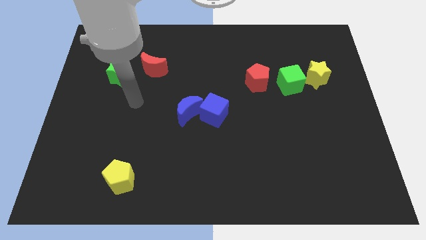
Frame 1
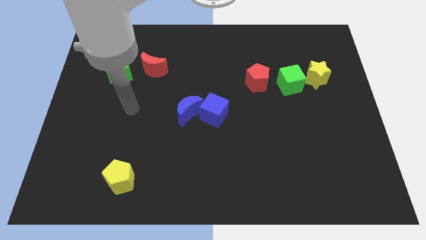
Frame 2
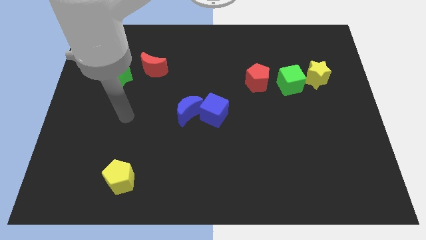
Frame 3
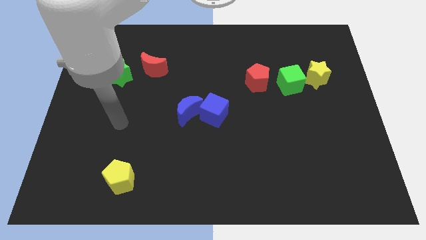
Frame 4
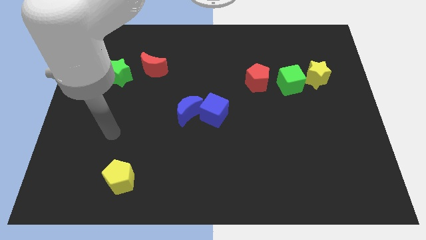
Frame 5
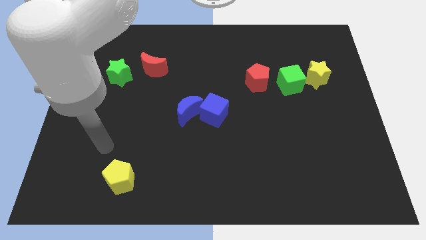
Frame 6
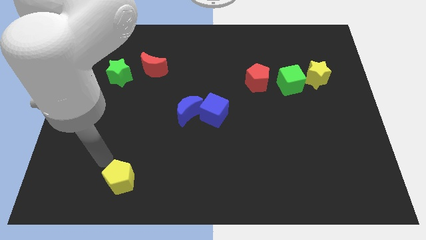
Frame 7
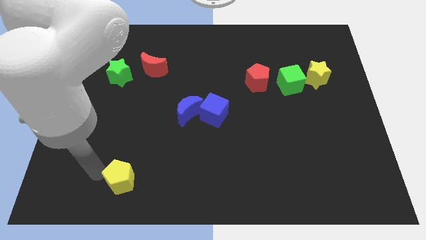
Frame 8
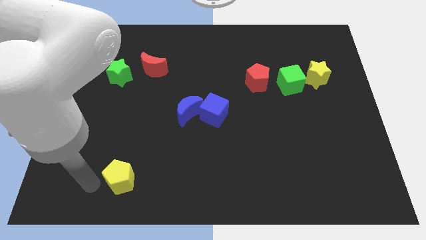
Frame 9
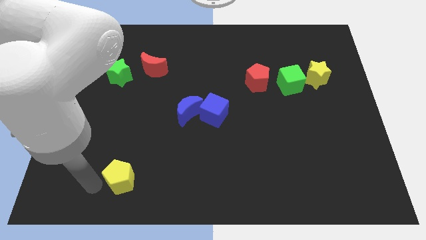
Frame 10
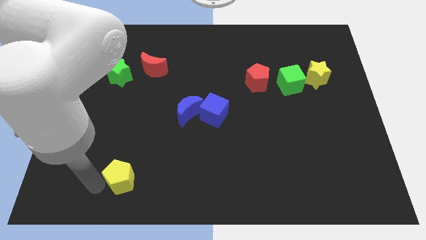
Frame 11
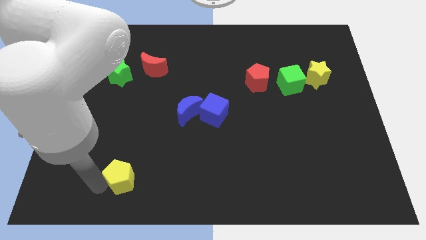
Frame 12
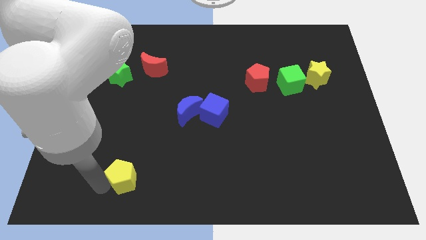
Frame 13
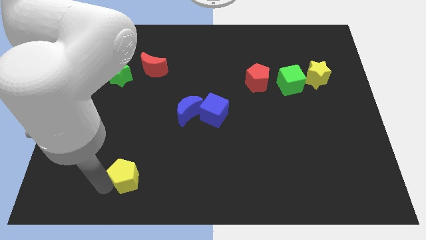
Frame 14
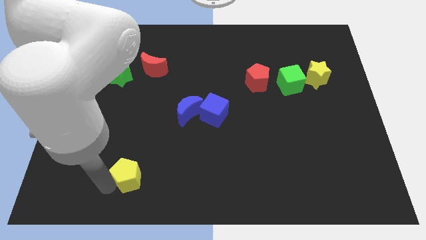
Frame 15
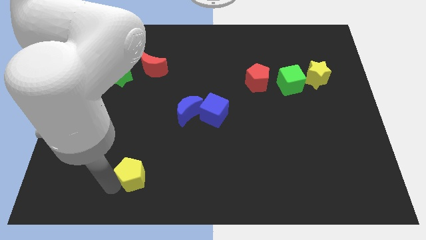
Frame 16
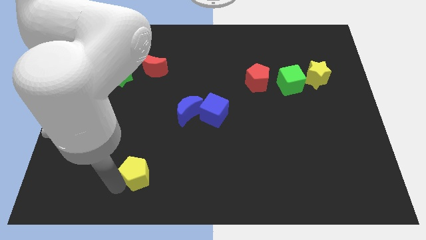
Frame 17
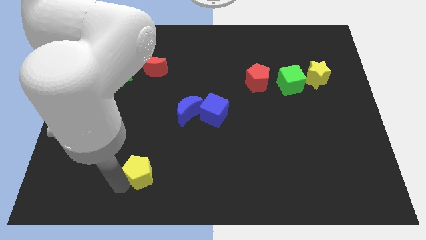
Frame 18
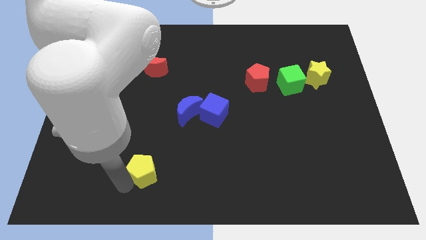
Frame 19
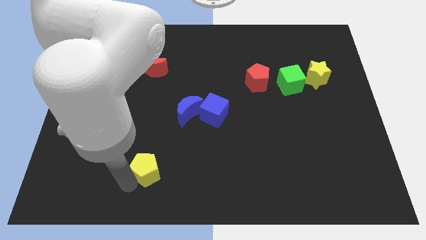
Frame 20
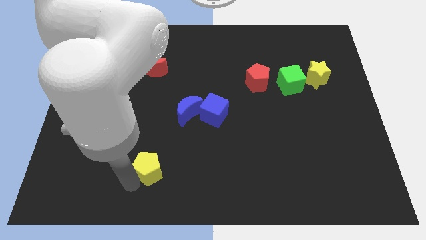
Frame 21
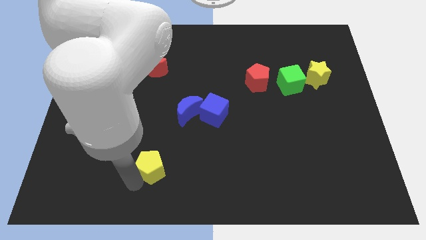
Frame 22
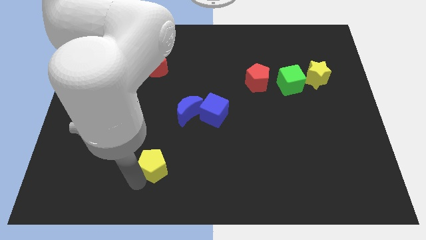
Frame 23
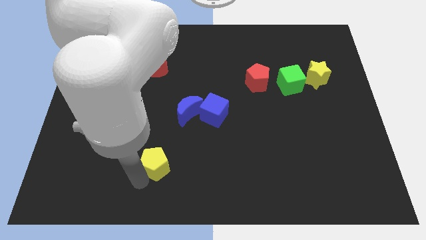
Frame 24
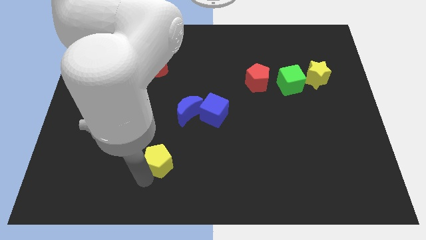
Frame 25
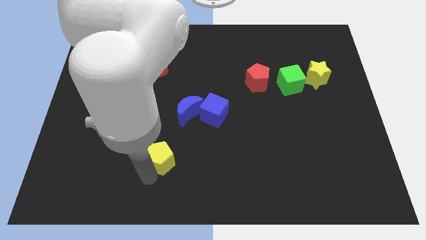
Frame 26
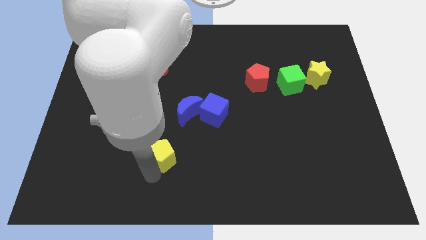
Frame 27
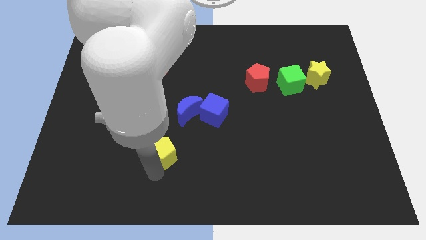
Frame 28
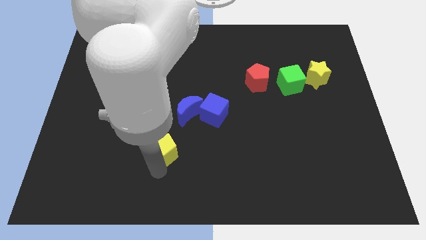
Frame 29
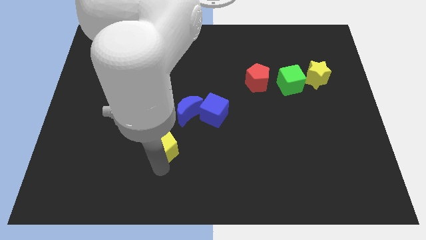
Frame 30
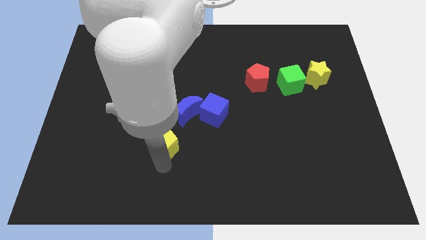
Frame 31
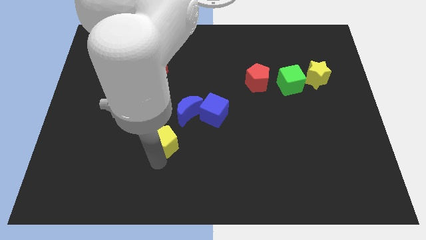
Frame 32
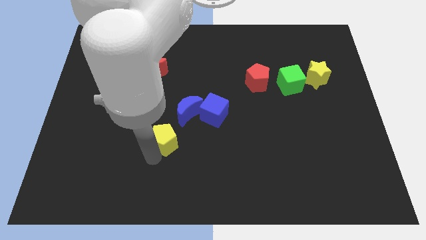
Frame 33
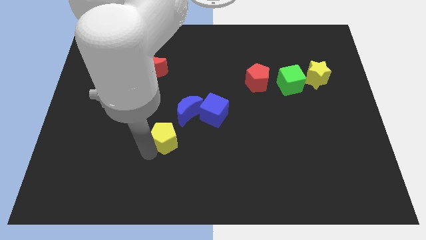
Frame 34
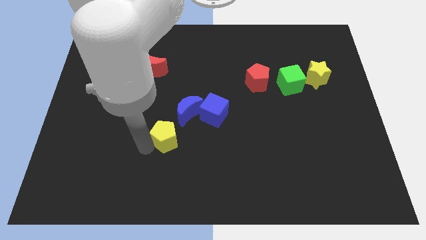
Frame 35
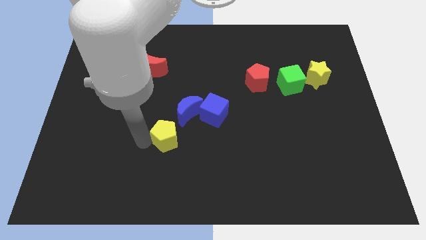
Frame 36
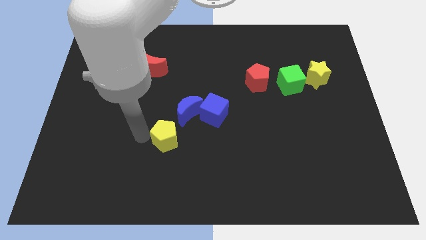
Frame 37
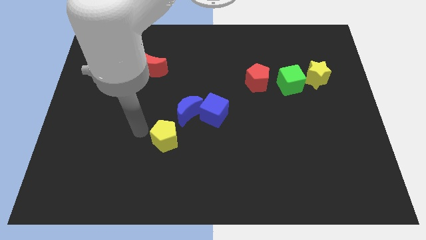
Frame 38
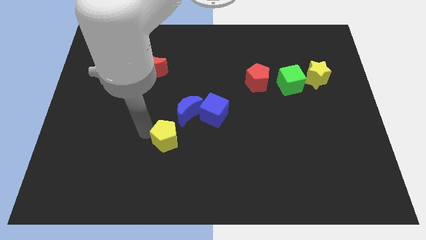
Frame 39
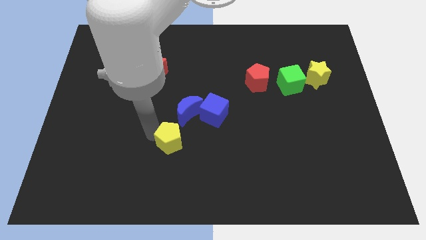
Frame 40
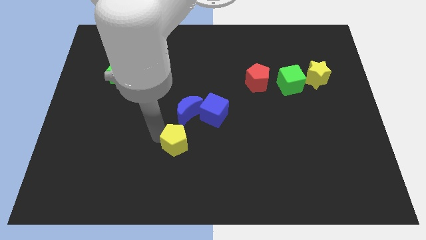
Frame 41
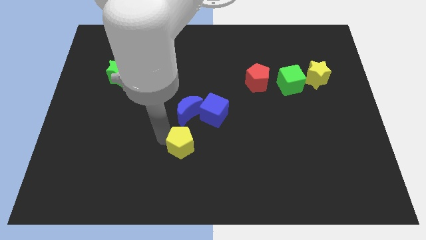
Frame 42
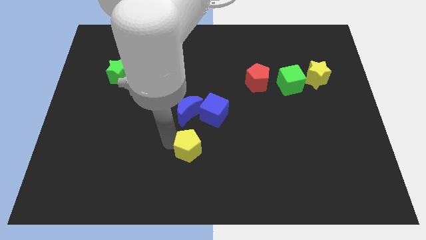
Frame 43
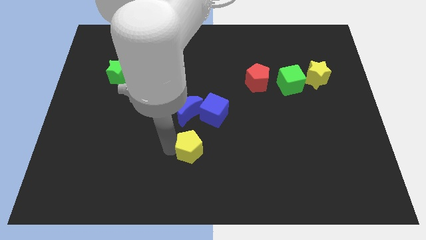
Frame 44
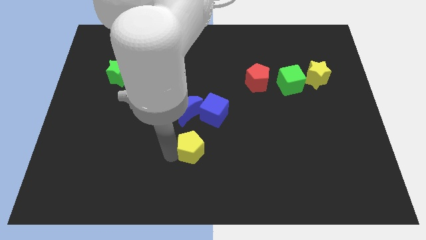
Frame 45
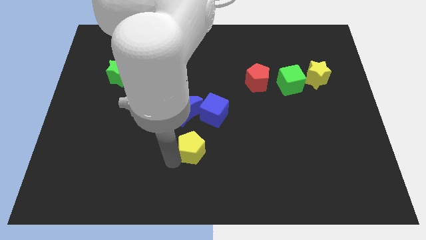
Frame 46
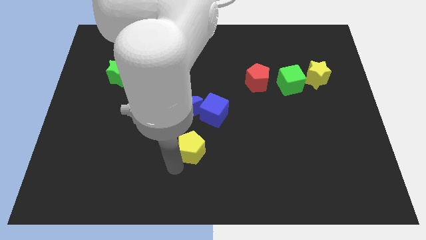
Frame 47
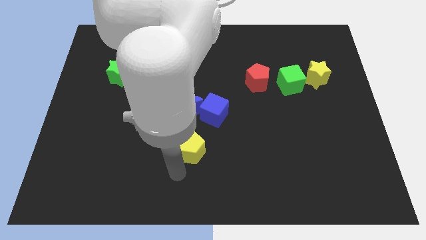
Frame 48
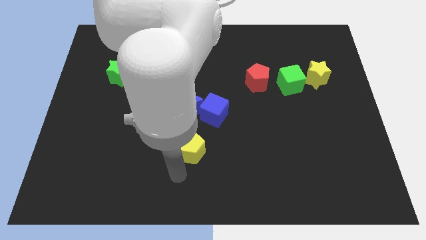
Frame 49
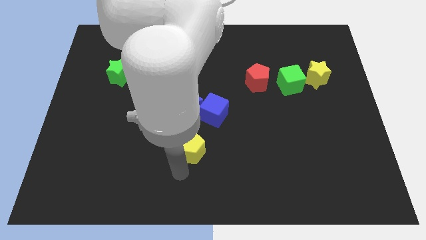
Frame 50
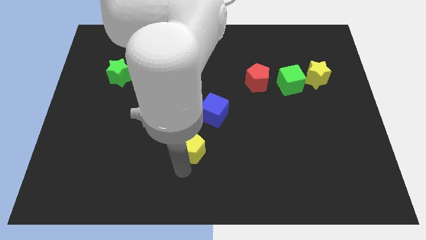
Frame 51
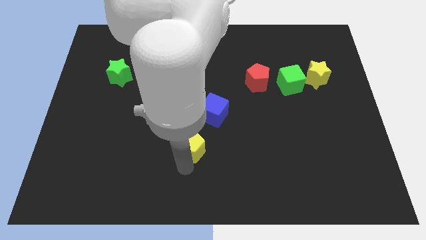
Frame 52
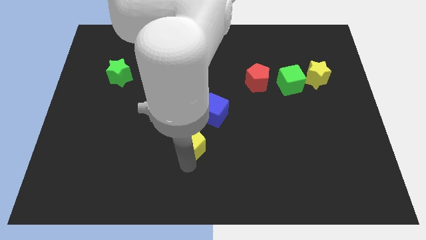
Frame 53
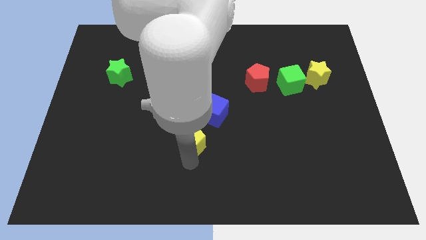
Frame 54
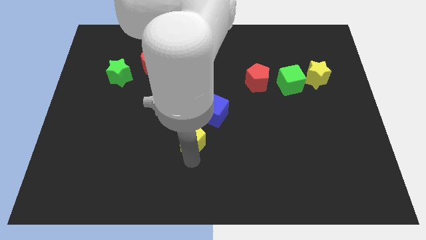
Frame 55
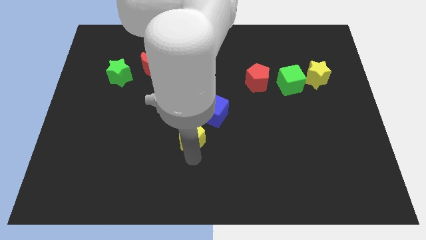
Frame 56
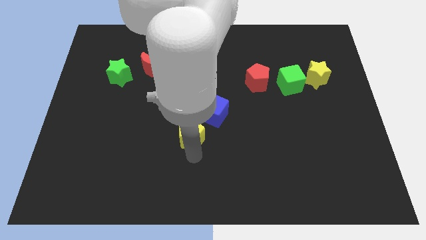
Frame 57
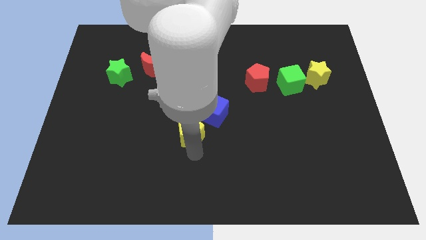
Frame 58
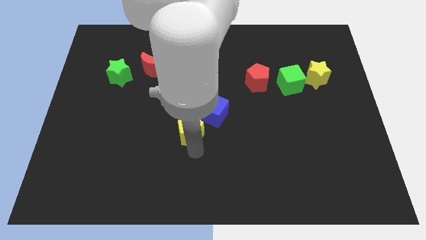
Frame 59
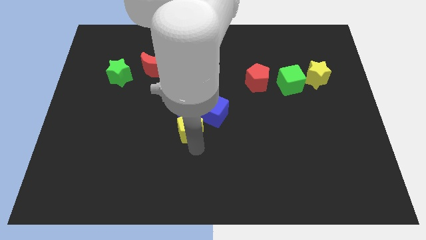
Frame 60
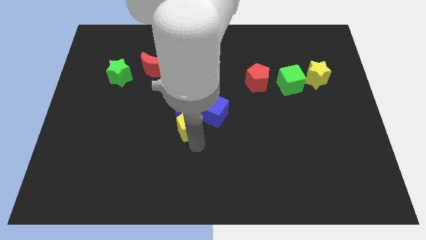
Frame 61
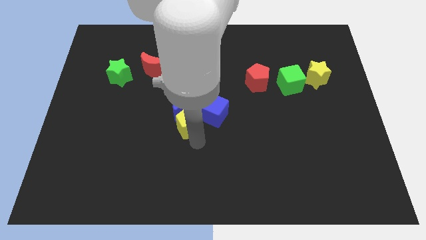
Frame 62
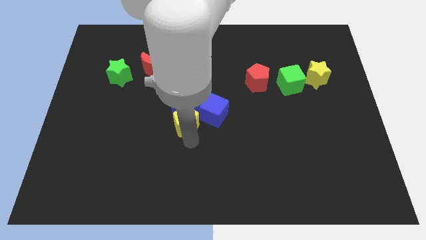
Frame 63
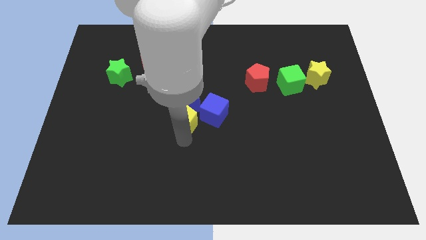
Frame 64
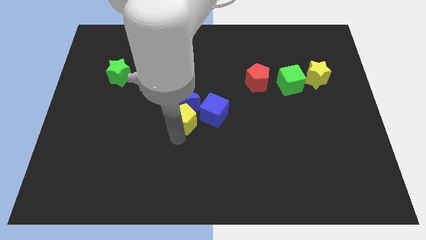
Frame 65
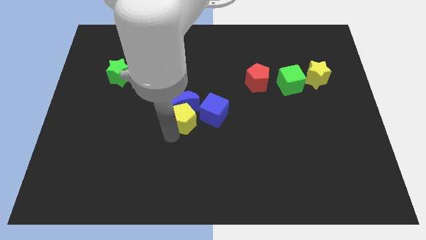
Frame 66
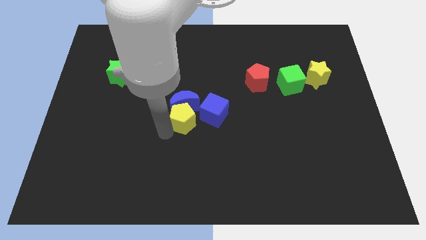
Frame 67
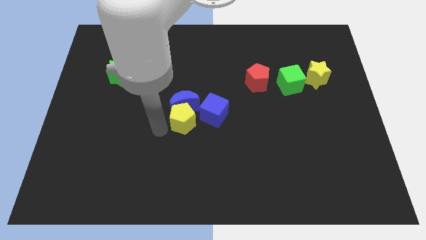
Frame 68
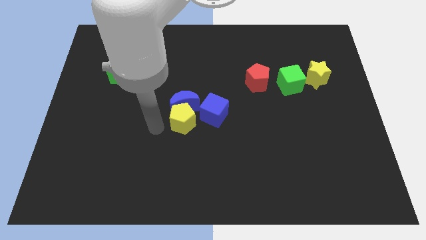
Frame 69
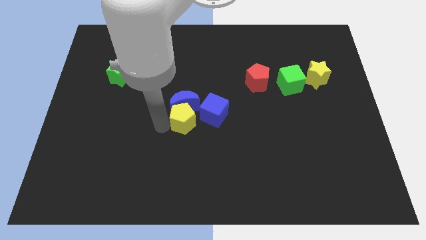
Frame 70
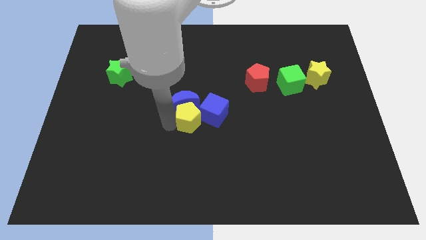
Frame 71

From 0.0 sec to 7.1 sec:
move the yellow pentagon next to the blue cube
